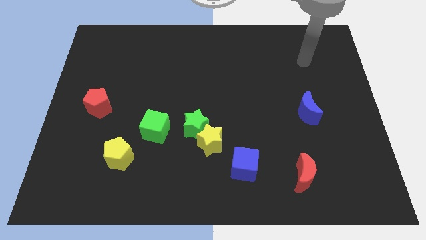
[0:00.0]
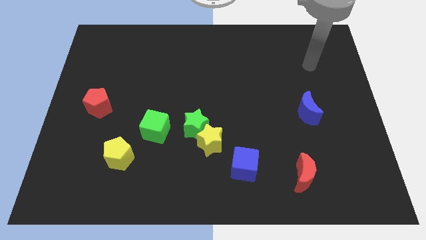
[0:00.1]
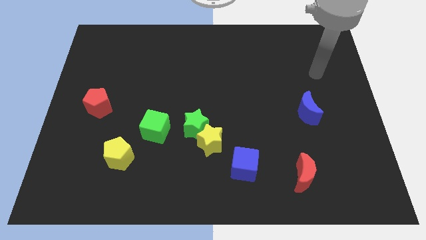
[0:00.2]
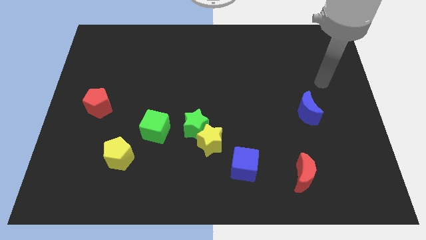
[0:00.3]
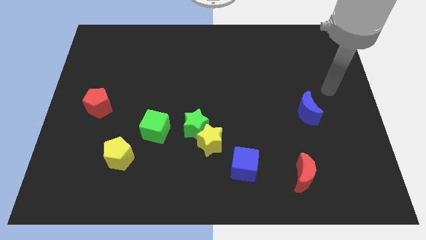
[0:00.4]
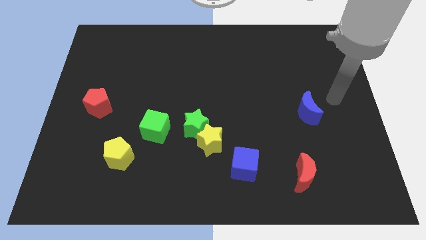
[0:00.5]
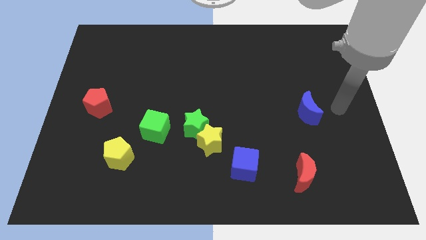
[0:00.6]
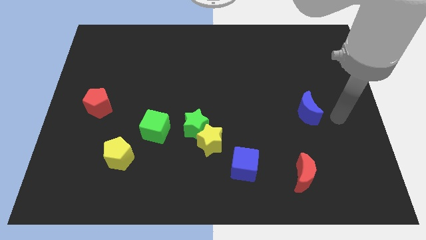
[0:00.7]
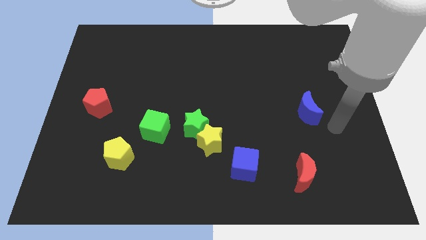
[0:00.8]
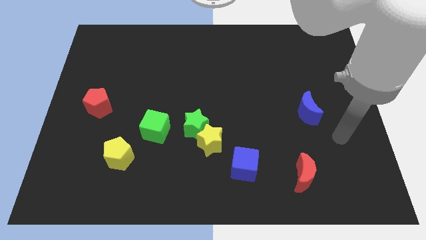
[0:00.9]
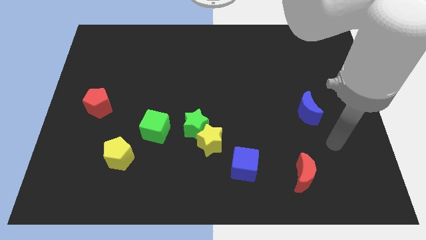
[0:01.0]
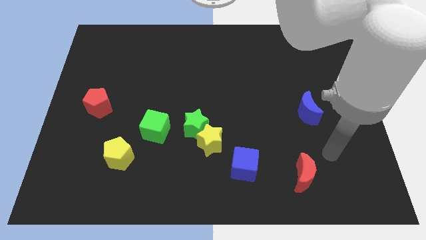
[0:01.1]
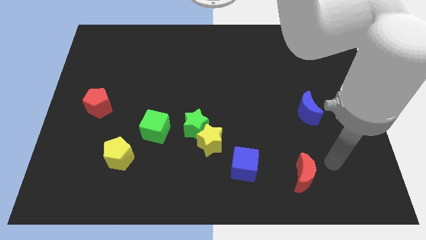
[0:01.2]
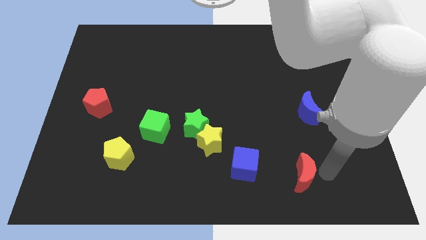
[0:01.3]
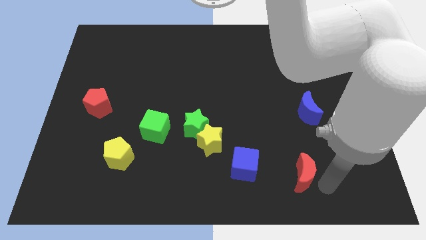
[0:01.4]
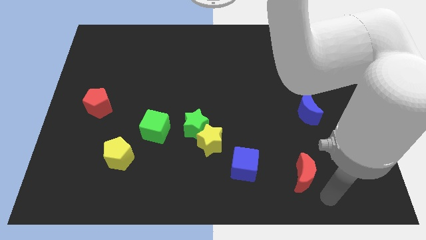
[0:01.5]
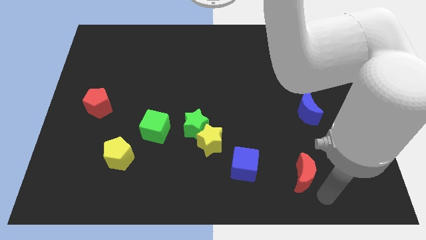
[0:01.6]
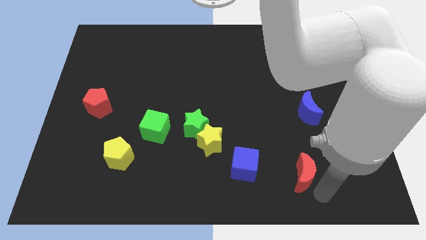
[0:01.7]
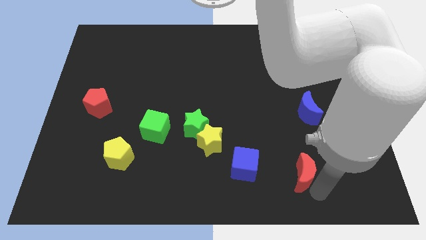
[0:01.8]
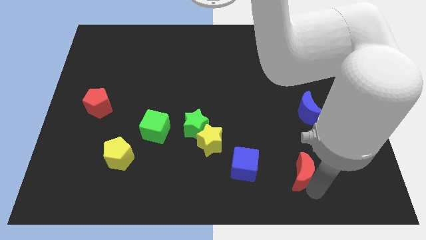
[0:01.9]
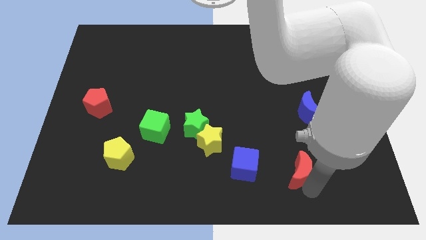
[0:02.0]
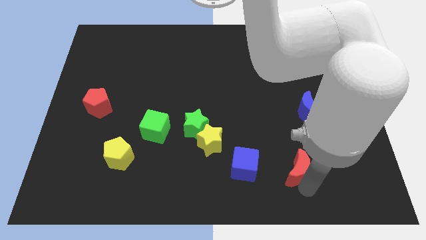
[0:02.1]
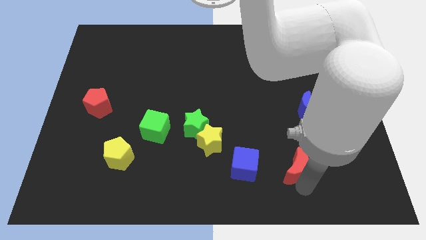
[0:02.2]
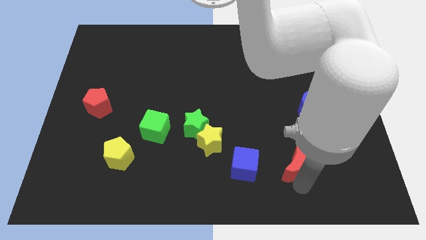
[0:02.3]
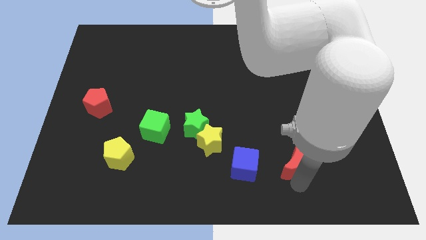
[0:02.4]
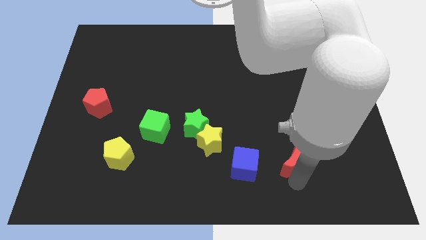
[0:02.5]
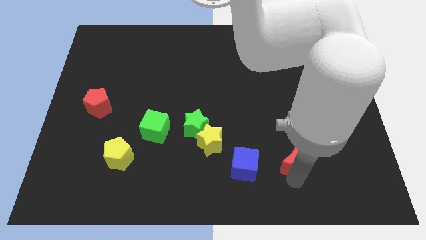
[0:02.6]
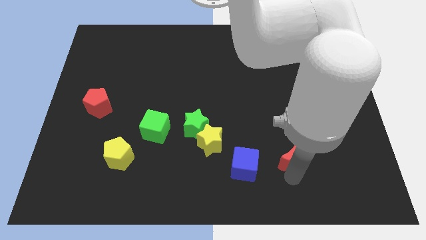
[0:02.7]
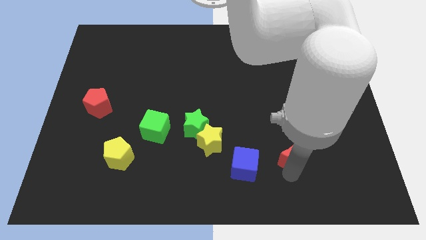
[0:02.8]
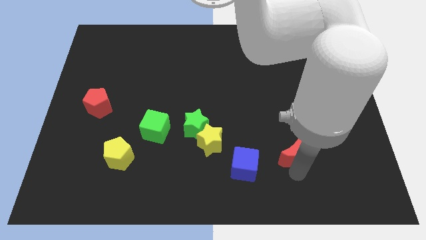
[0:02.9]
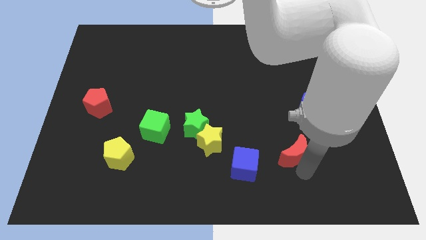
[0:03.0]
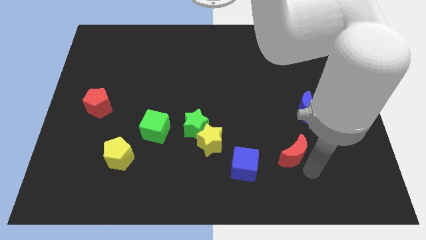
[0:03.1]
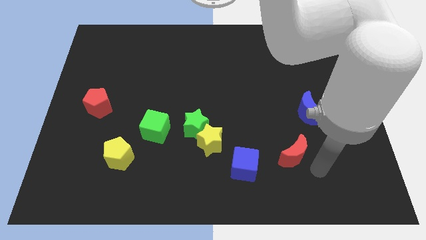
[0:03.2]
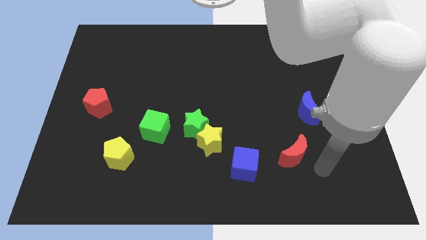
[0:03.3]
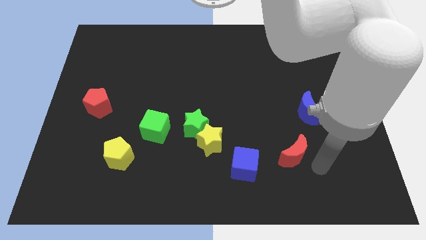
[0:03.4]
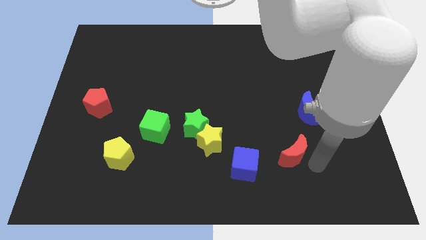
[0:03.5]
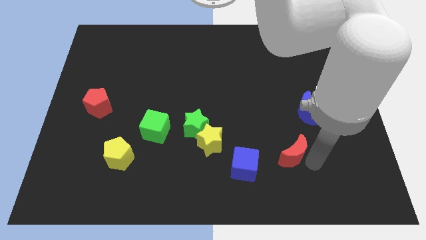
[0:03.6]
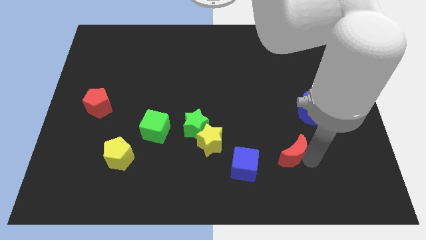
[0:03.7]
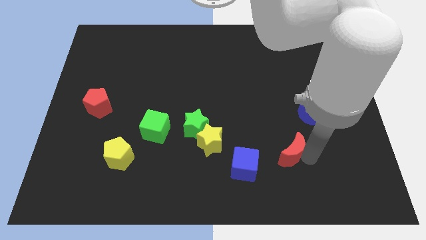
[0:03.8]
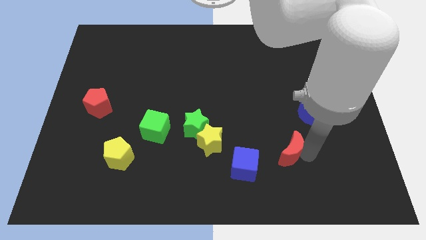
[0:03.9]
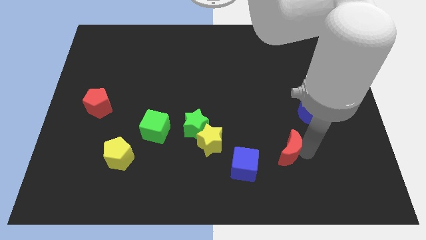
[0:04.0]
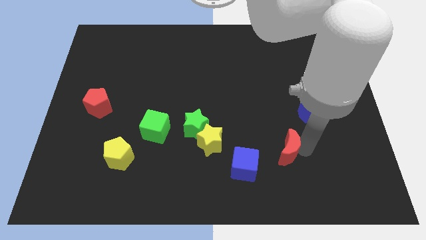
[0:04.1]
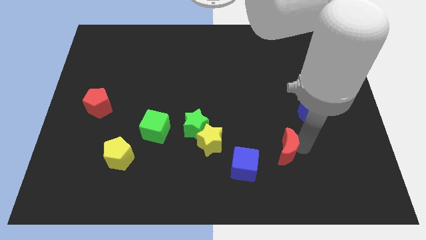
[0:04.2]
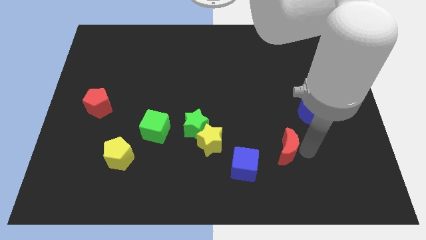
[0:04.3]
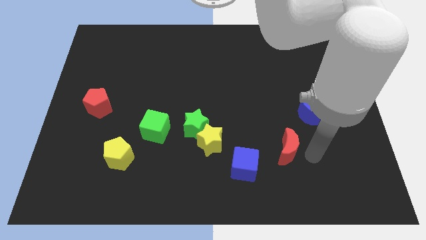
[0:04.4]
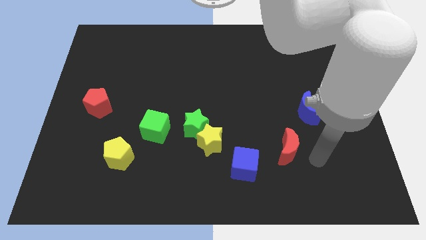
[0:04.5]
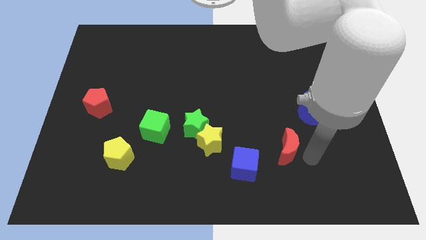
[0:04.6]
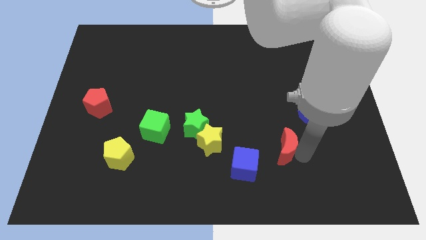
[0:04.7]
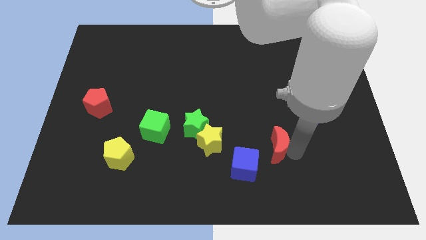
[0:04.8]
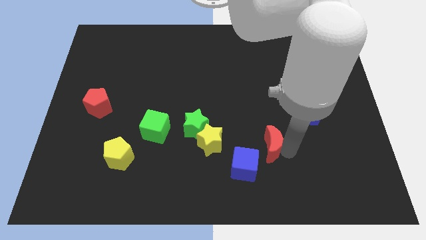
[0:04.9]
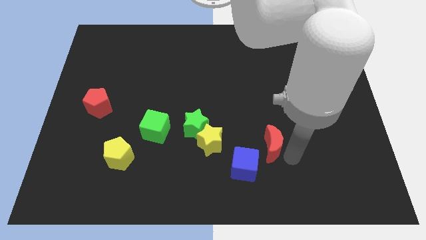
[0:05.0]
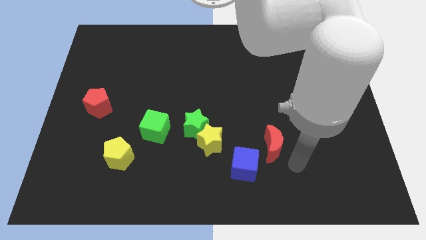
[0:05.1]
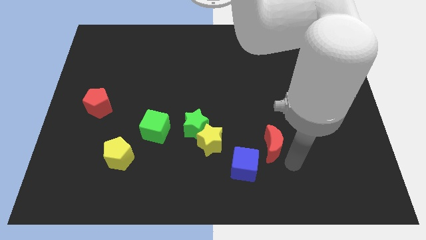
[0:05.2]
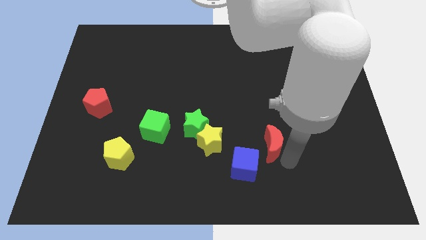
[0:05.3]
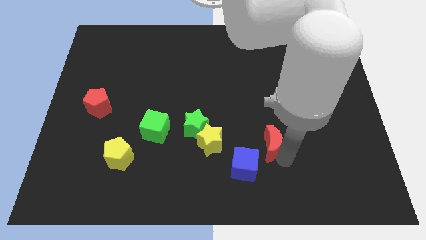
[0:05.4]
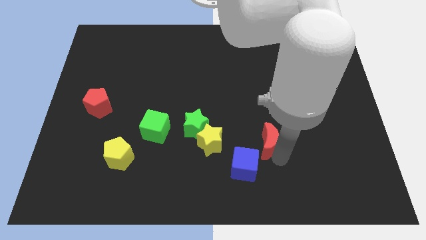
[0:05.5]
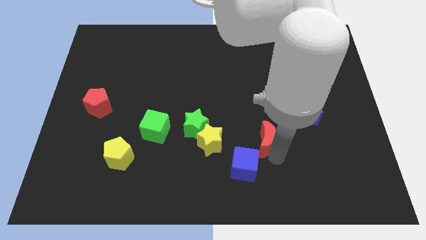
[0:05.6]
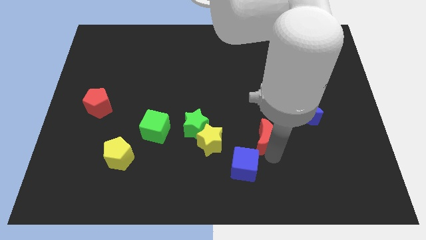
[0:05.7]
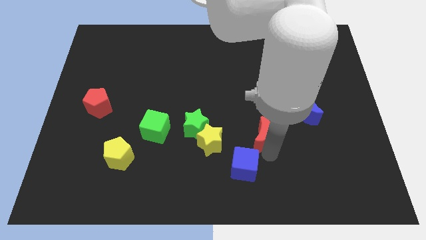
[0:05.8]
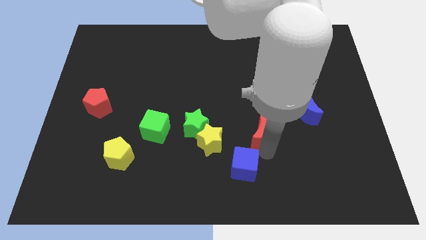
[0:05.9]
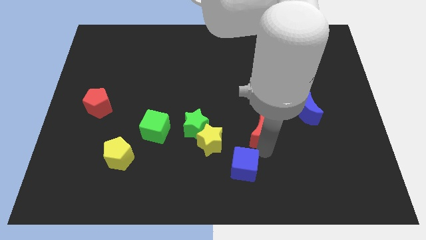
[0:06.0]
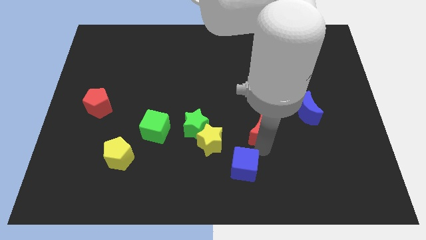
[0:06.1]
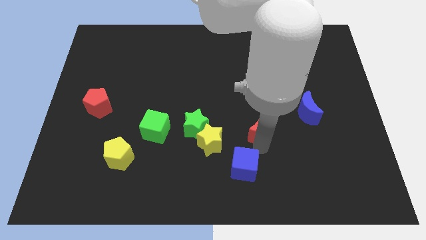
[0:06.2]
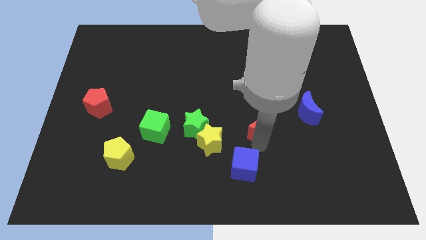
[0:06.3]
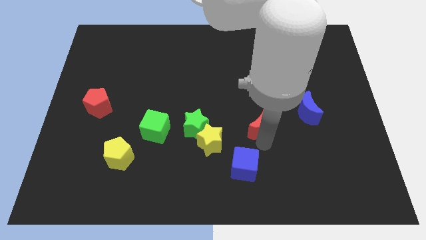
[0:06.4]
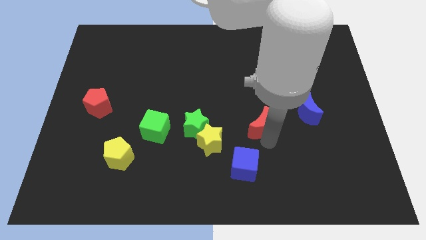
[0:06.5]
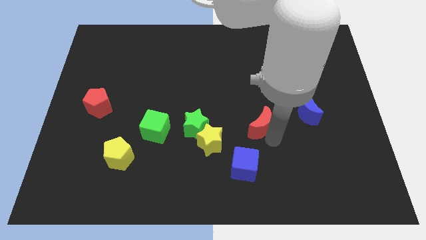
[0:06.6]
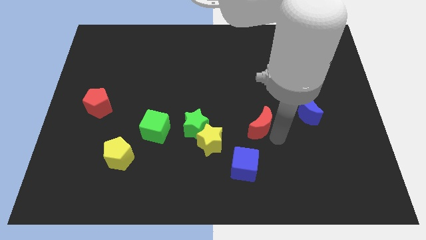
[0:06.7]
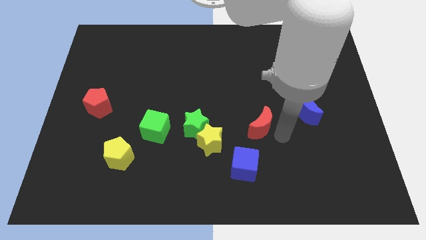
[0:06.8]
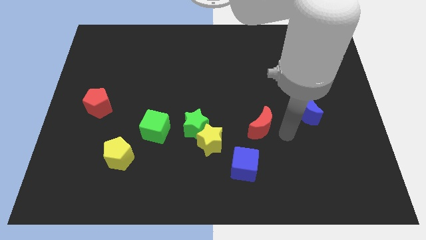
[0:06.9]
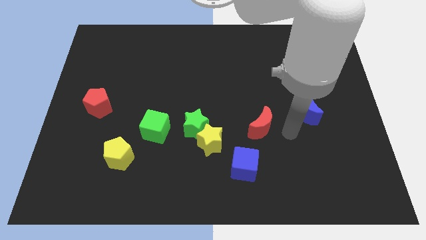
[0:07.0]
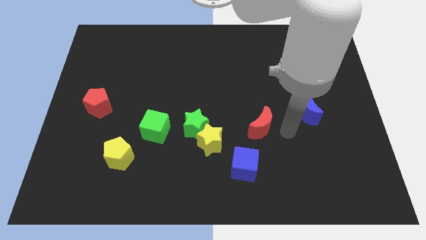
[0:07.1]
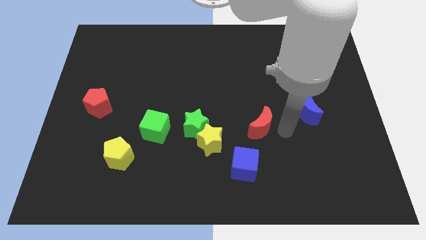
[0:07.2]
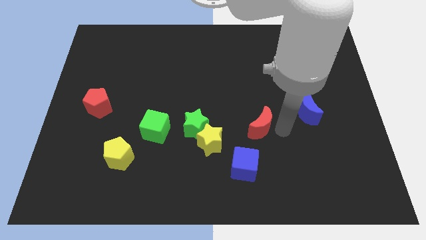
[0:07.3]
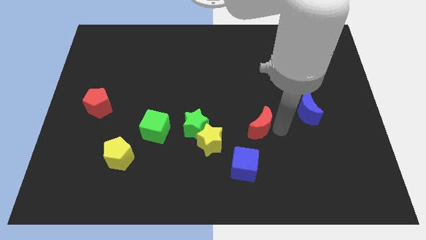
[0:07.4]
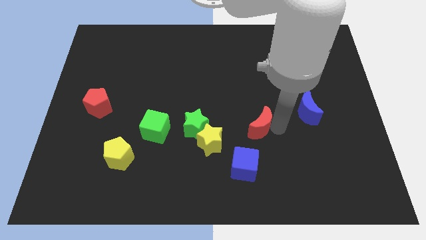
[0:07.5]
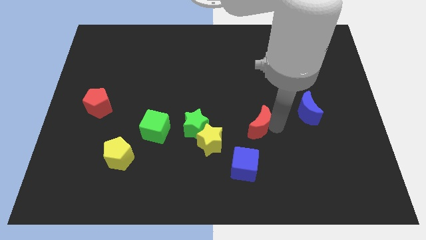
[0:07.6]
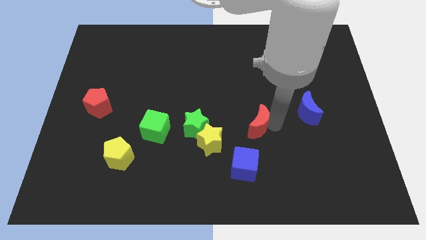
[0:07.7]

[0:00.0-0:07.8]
push the red moon to the center
